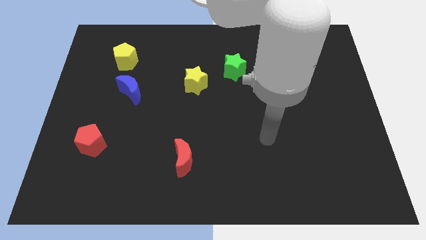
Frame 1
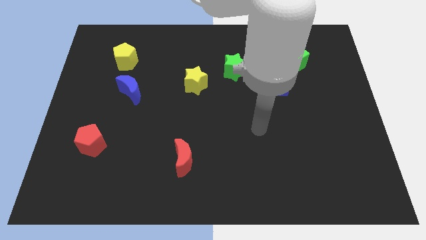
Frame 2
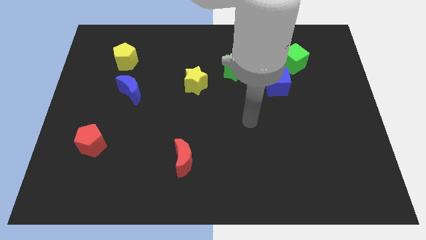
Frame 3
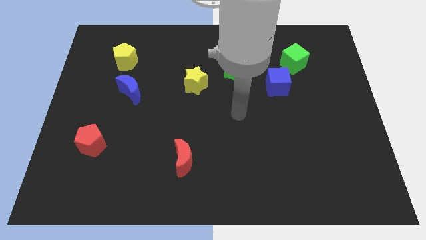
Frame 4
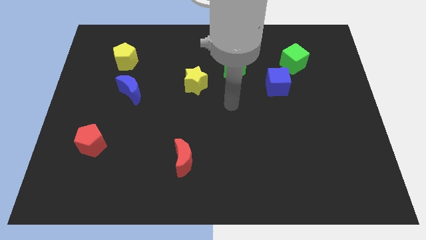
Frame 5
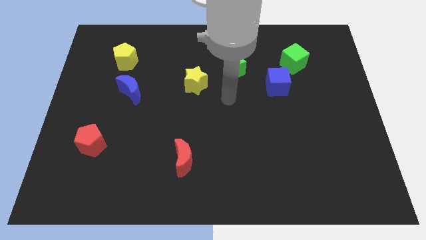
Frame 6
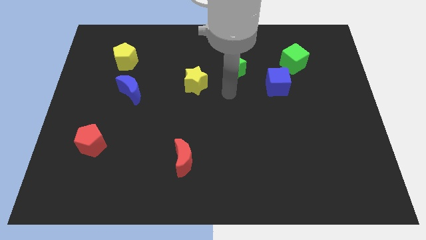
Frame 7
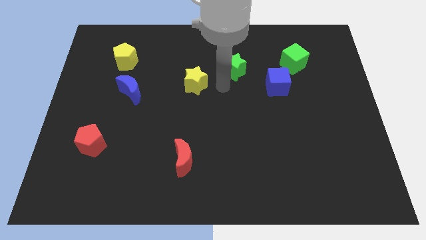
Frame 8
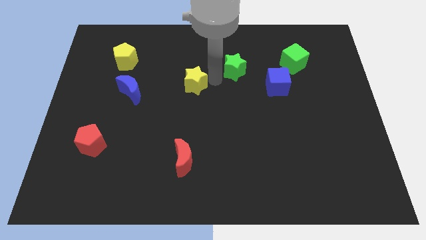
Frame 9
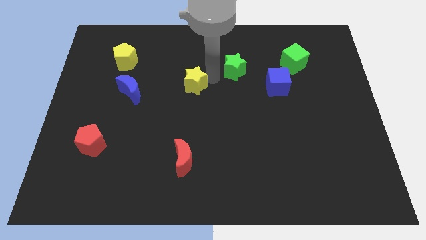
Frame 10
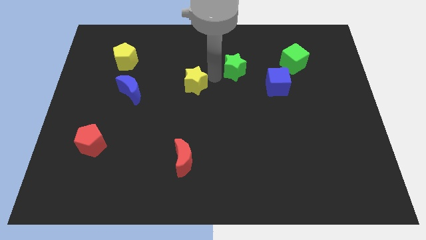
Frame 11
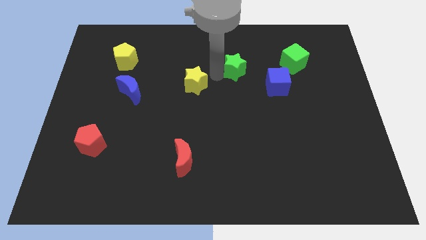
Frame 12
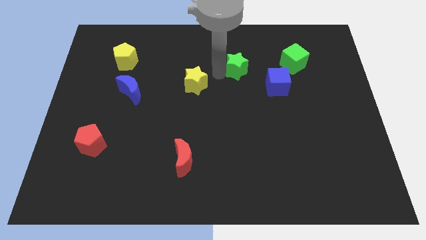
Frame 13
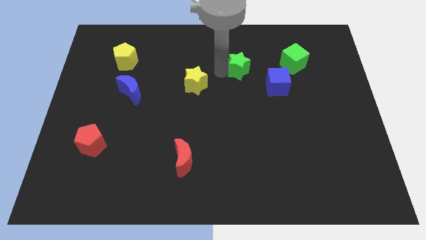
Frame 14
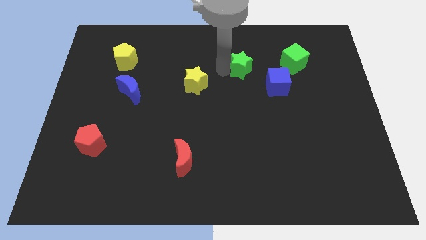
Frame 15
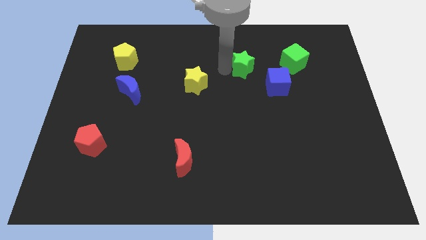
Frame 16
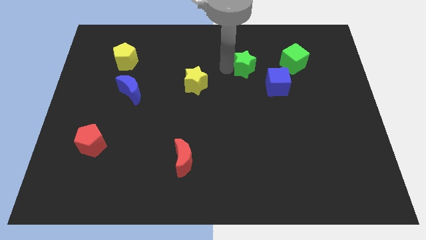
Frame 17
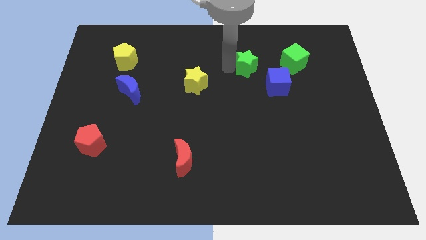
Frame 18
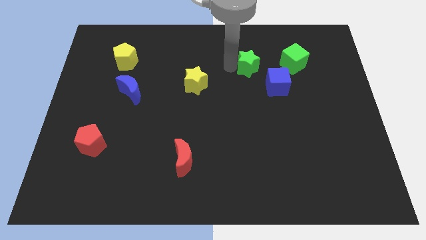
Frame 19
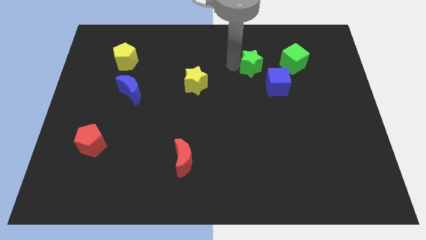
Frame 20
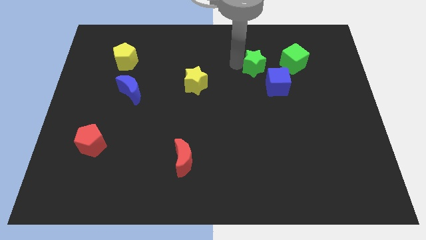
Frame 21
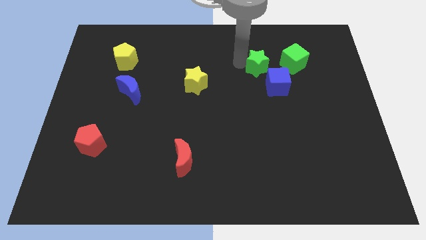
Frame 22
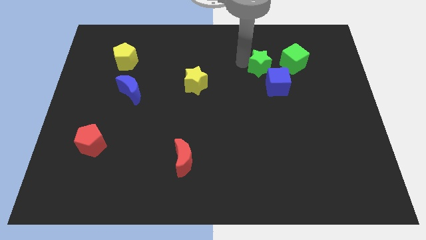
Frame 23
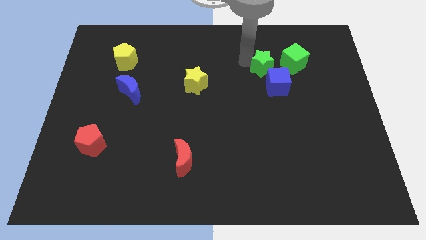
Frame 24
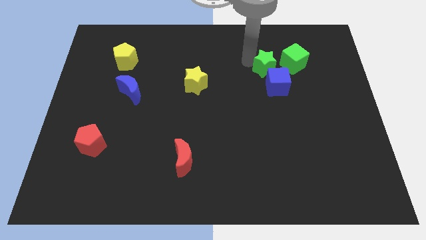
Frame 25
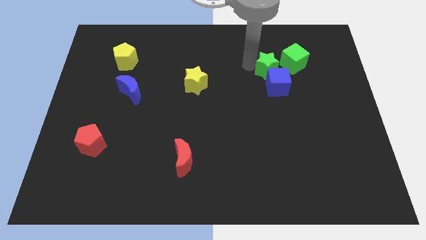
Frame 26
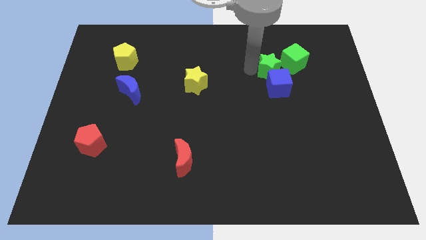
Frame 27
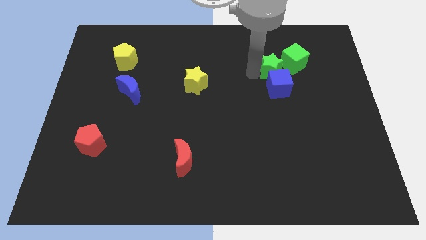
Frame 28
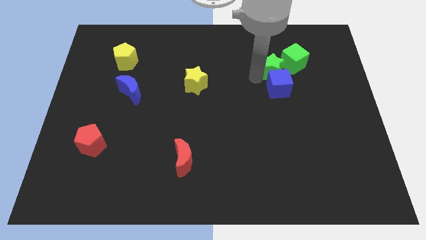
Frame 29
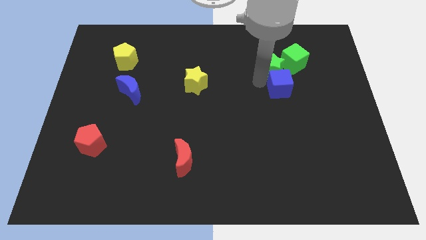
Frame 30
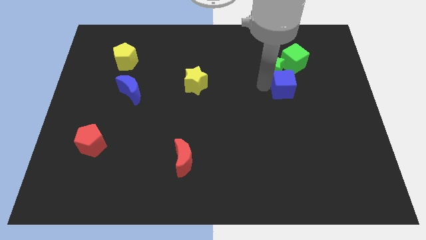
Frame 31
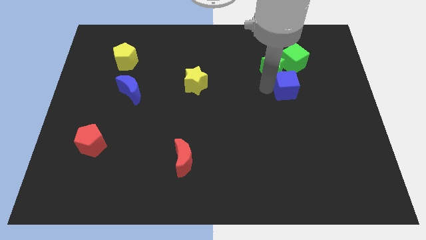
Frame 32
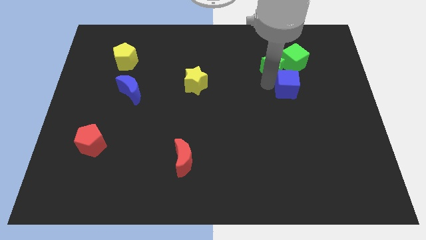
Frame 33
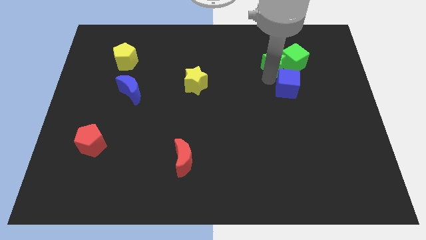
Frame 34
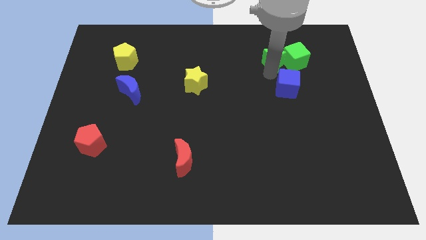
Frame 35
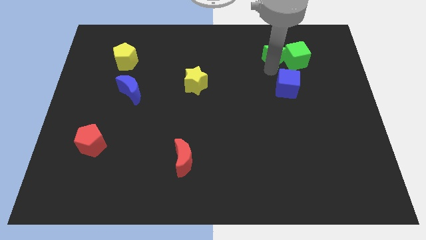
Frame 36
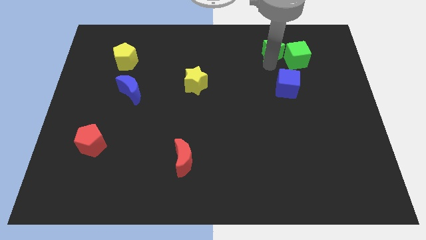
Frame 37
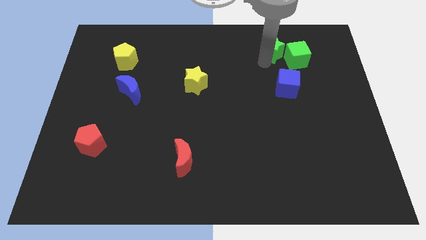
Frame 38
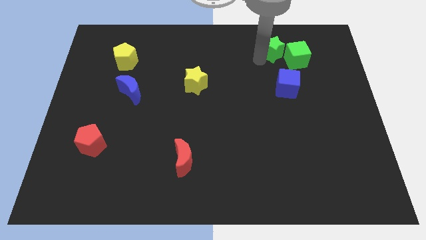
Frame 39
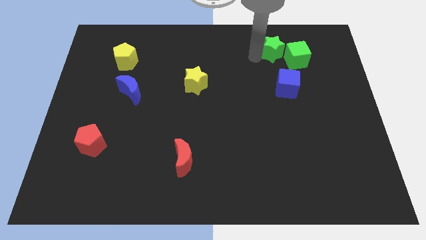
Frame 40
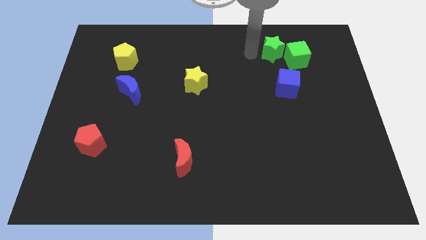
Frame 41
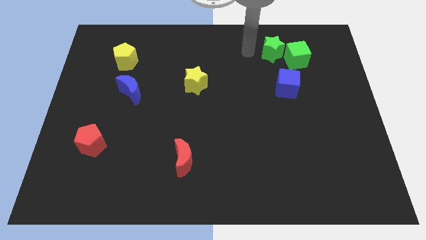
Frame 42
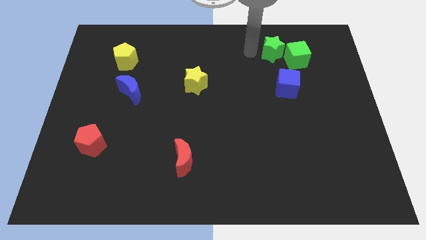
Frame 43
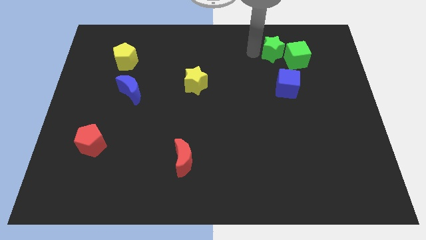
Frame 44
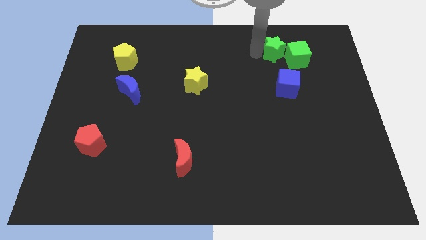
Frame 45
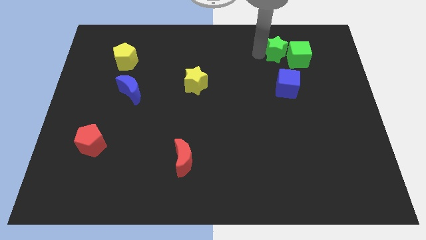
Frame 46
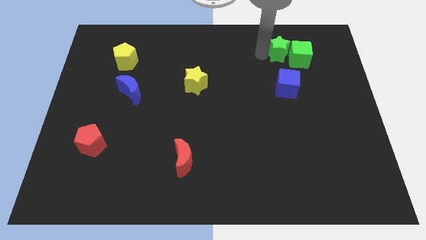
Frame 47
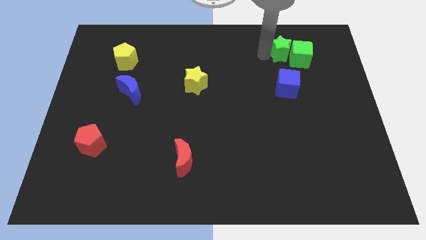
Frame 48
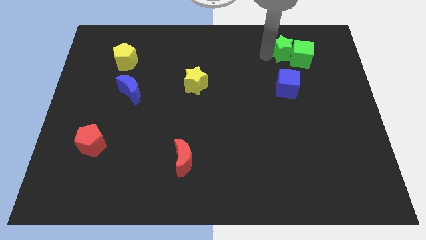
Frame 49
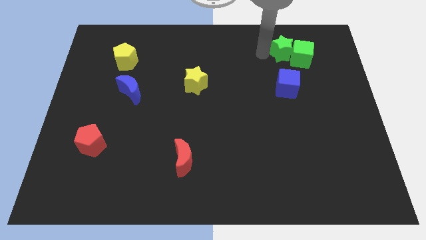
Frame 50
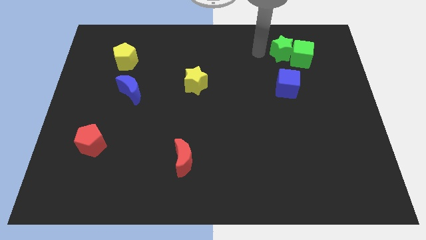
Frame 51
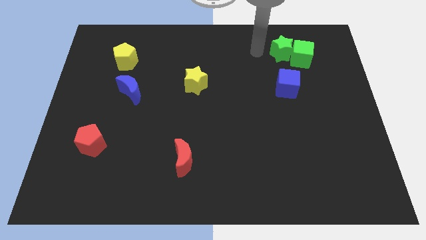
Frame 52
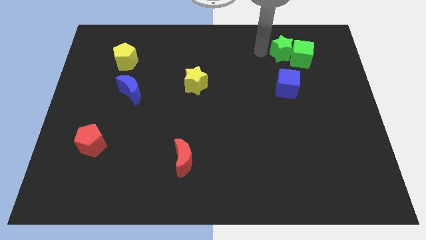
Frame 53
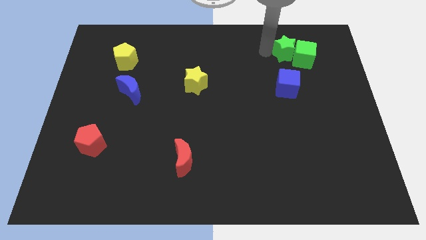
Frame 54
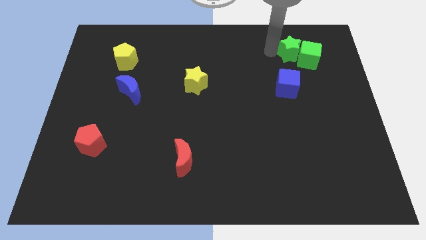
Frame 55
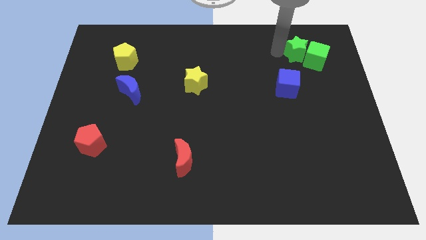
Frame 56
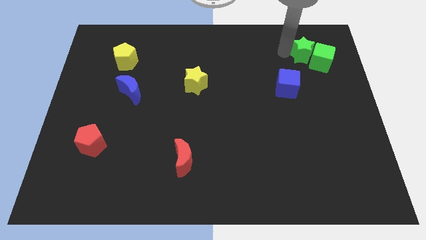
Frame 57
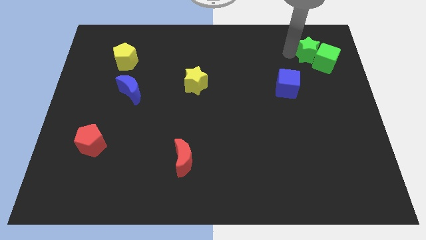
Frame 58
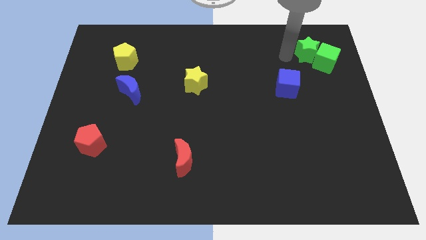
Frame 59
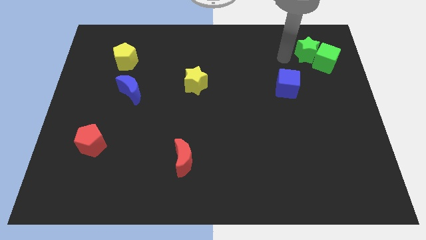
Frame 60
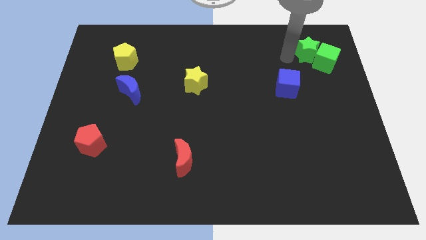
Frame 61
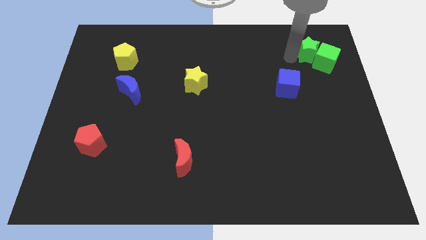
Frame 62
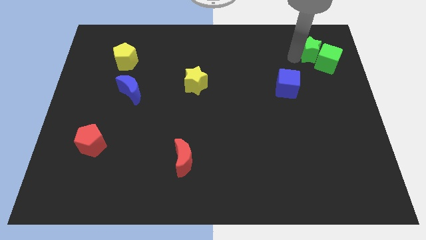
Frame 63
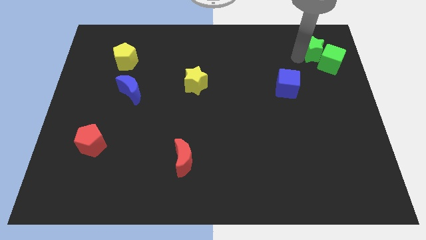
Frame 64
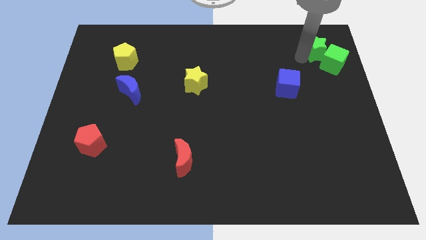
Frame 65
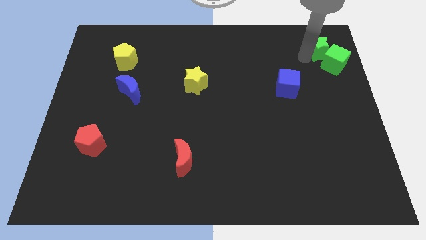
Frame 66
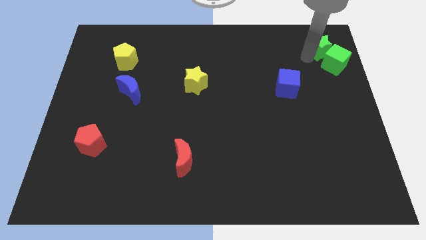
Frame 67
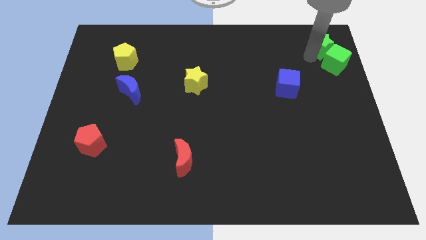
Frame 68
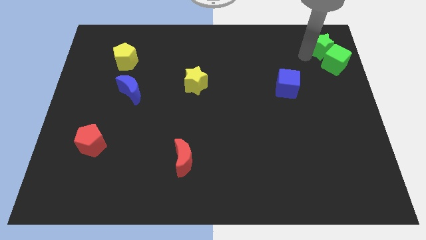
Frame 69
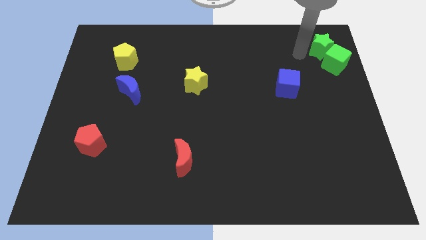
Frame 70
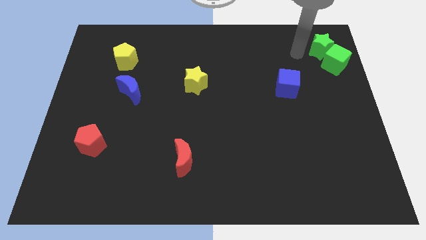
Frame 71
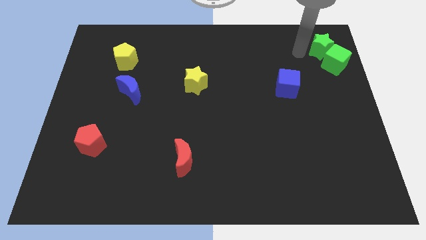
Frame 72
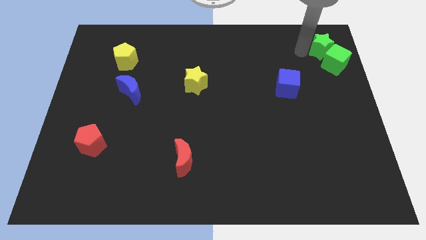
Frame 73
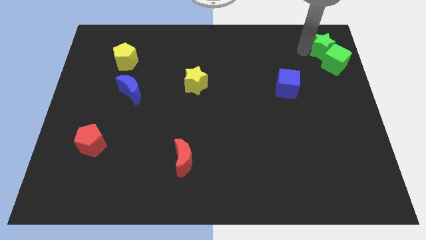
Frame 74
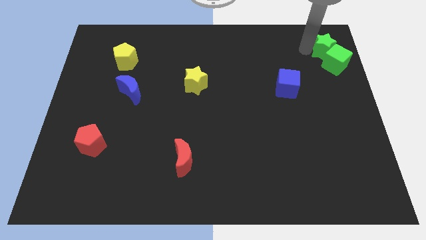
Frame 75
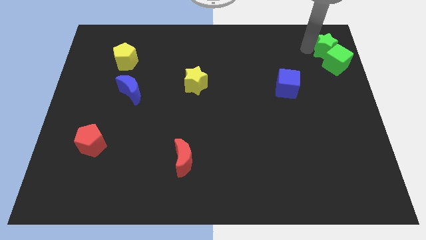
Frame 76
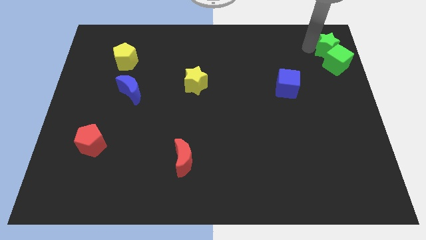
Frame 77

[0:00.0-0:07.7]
push the green star to the top right
